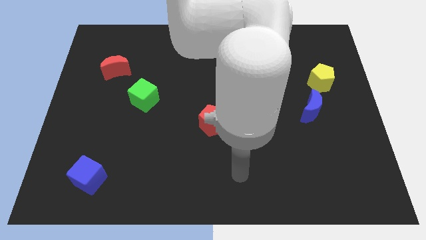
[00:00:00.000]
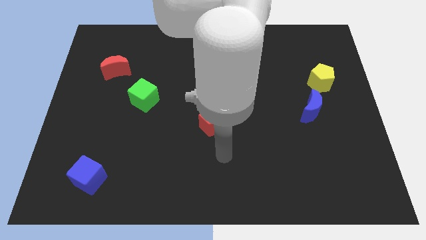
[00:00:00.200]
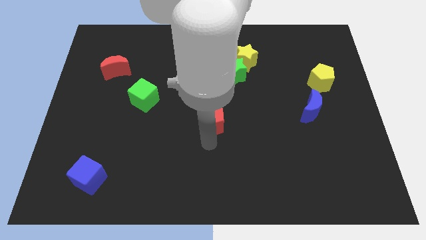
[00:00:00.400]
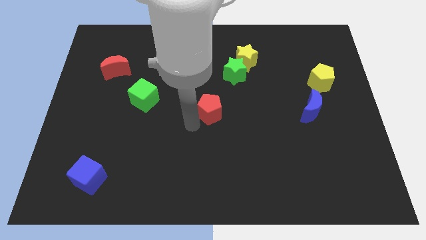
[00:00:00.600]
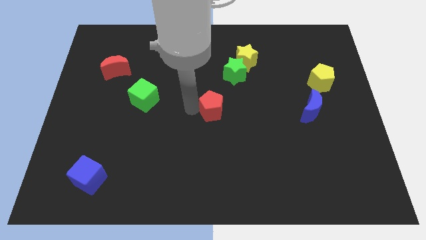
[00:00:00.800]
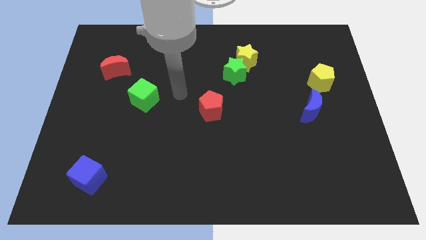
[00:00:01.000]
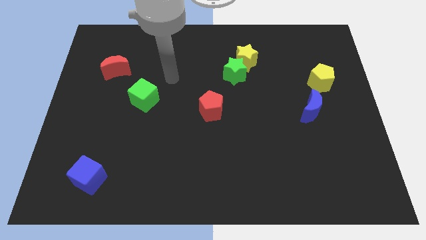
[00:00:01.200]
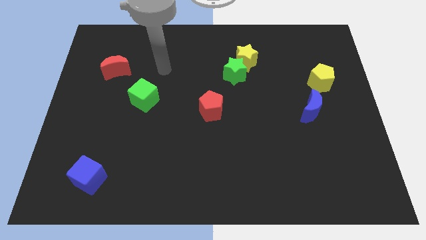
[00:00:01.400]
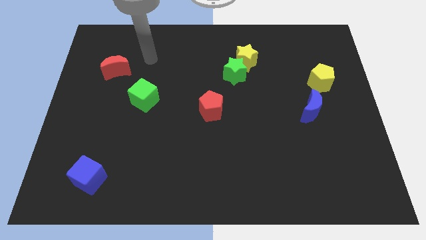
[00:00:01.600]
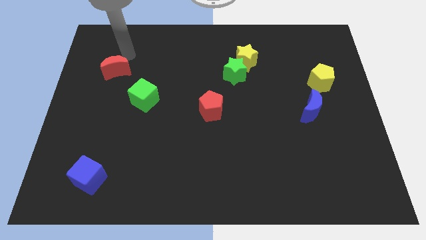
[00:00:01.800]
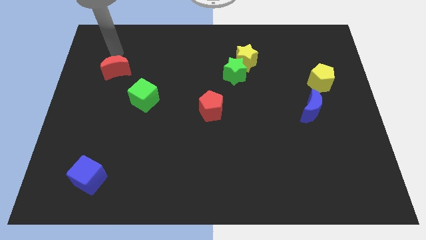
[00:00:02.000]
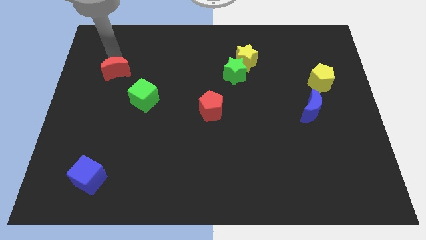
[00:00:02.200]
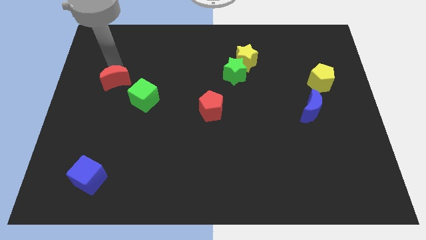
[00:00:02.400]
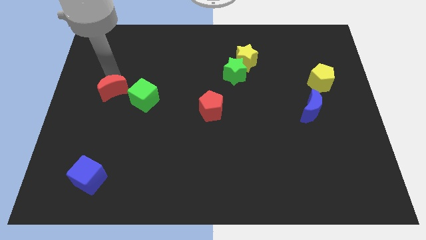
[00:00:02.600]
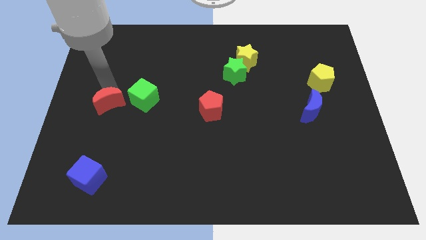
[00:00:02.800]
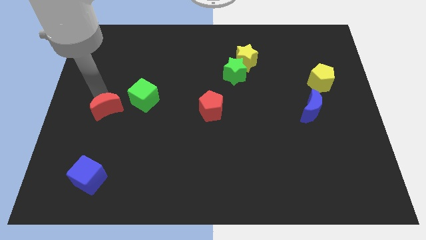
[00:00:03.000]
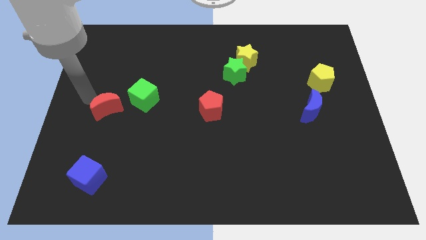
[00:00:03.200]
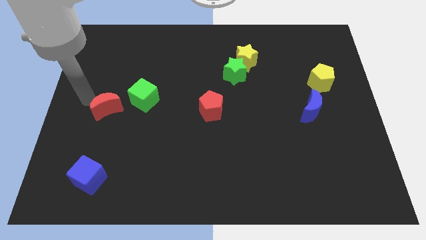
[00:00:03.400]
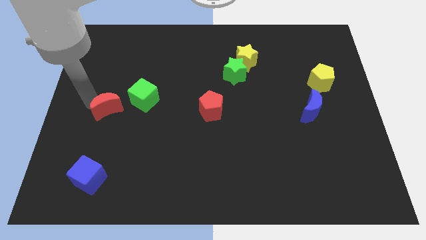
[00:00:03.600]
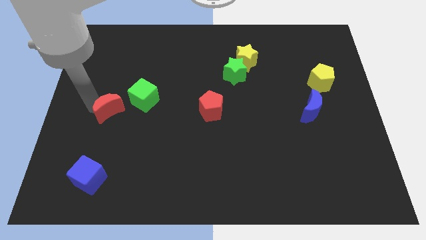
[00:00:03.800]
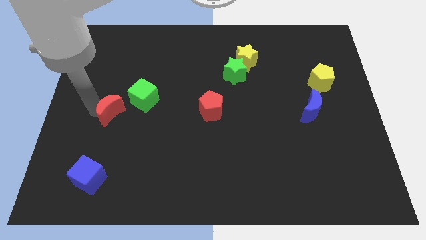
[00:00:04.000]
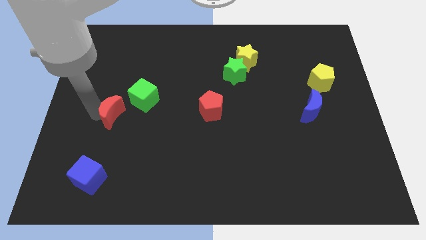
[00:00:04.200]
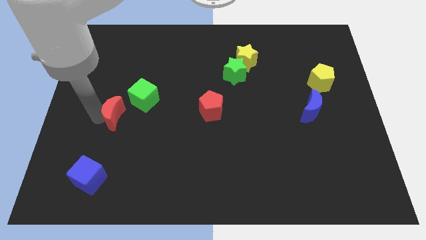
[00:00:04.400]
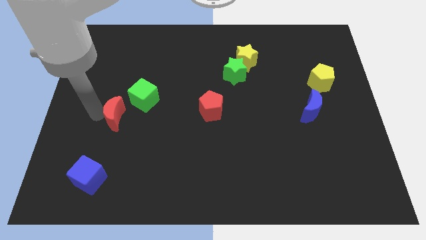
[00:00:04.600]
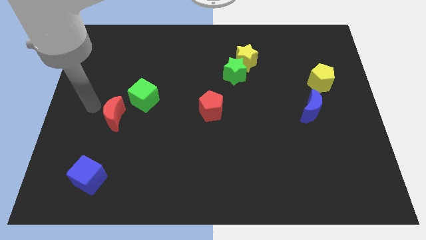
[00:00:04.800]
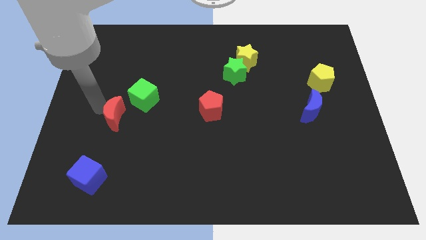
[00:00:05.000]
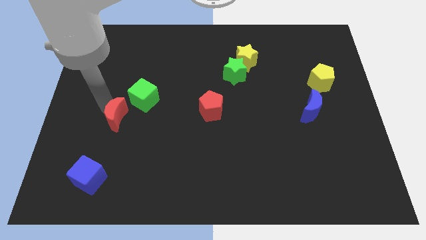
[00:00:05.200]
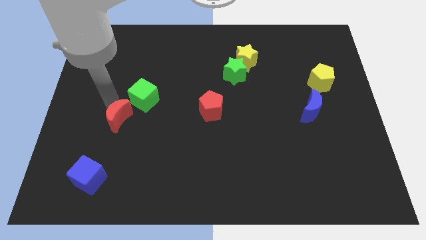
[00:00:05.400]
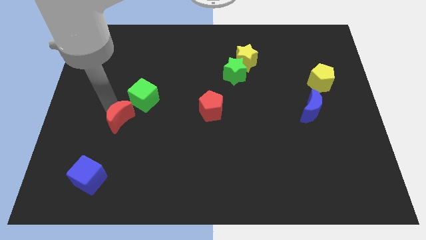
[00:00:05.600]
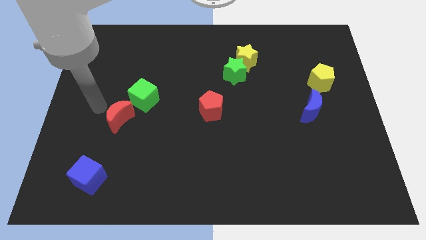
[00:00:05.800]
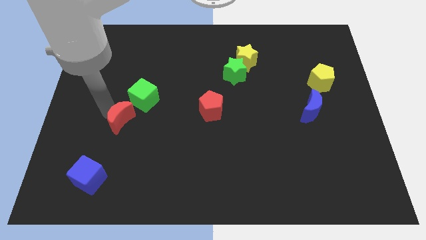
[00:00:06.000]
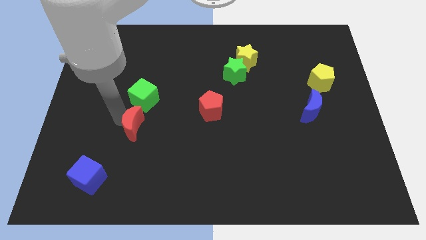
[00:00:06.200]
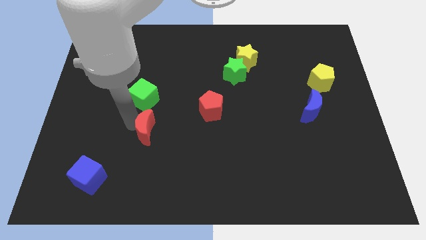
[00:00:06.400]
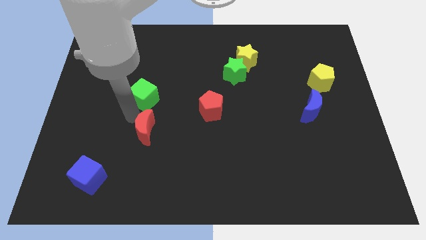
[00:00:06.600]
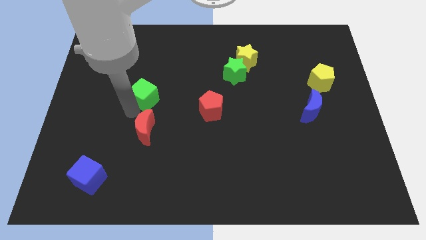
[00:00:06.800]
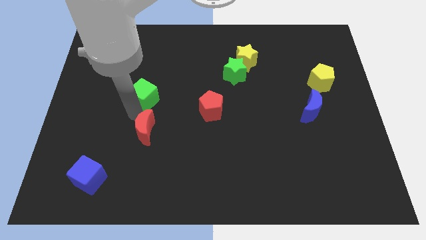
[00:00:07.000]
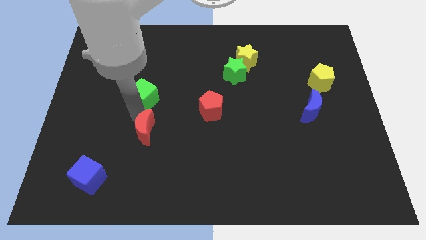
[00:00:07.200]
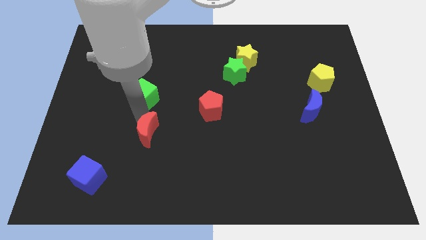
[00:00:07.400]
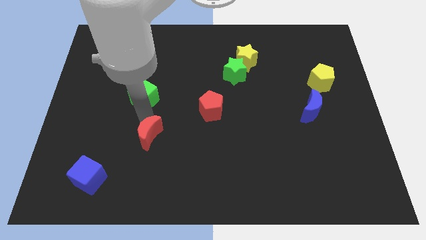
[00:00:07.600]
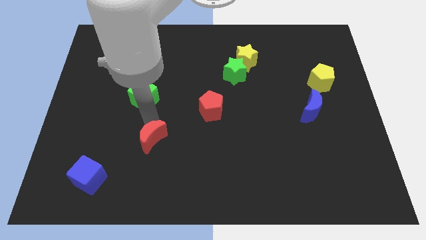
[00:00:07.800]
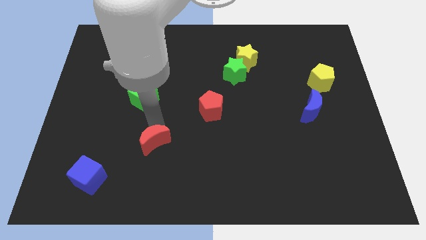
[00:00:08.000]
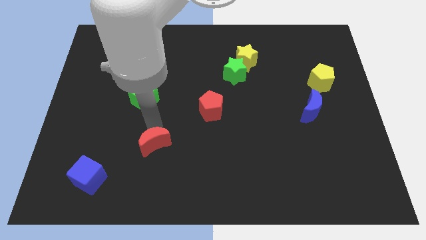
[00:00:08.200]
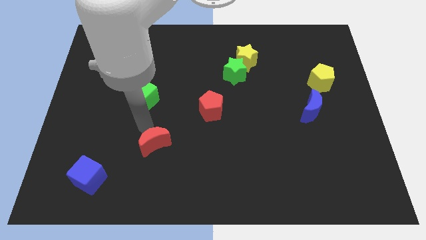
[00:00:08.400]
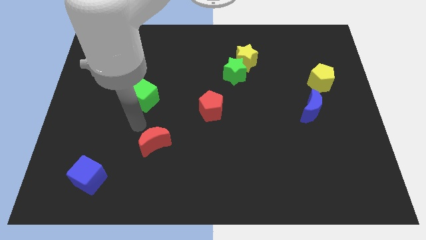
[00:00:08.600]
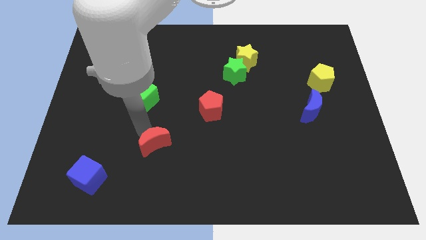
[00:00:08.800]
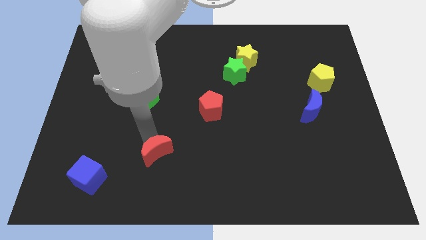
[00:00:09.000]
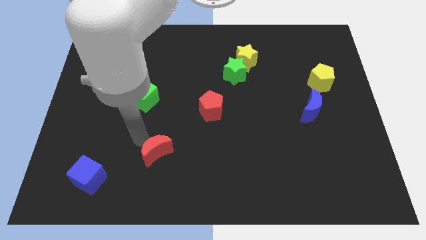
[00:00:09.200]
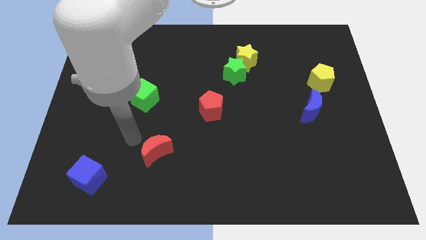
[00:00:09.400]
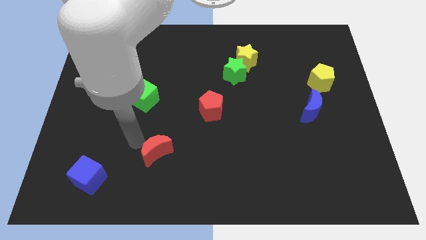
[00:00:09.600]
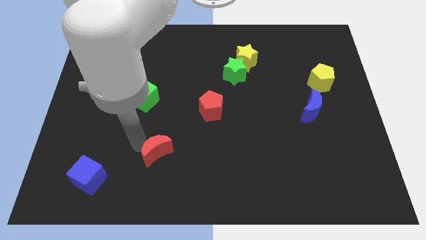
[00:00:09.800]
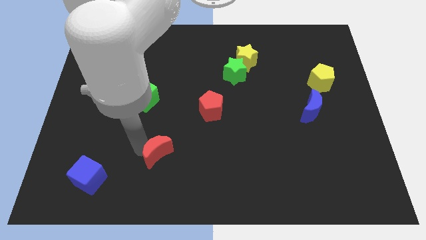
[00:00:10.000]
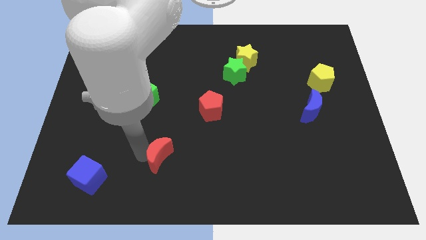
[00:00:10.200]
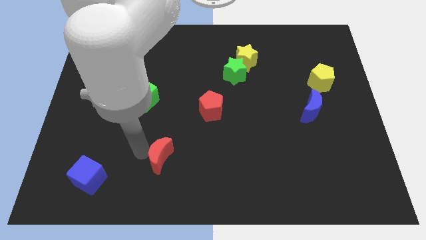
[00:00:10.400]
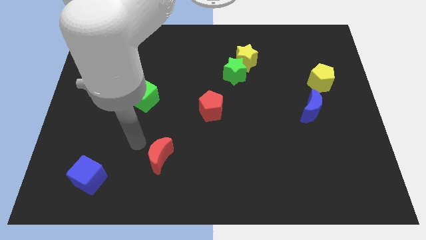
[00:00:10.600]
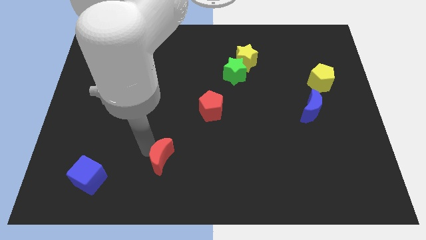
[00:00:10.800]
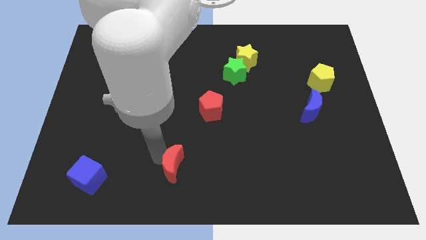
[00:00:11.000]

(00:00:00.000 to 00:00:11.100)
slide the red moon to the bottom

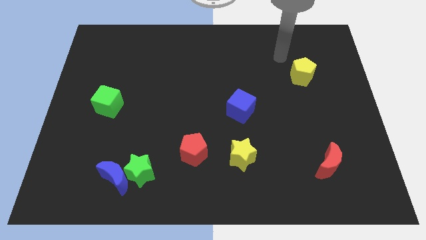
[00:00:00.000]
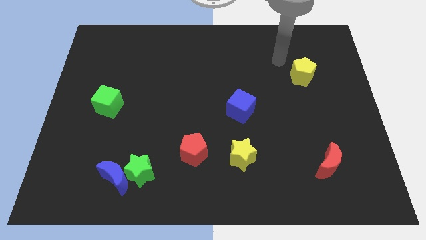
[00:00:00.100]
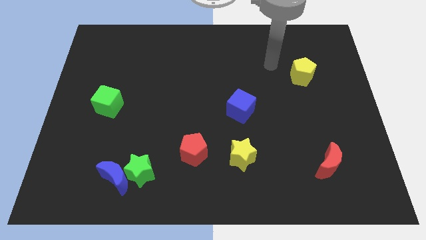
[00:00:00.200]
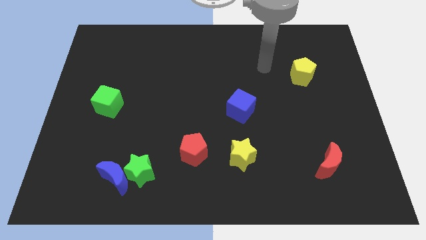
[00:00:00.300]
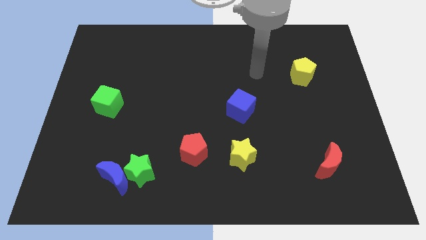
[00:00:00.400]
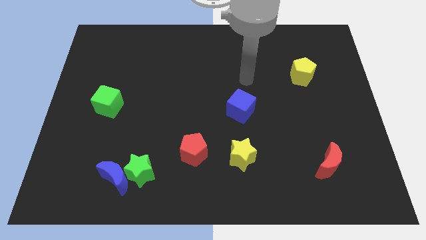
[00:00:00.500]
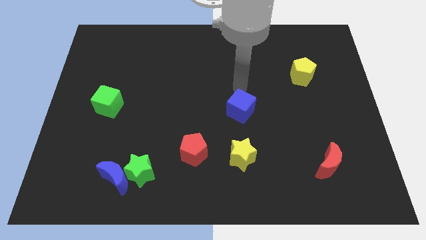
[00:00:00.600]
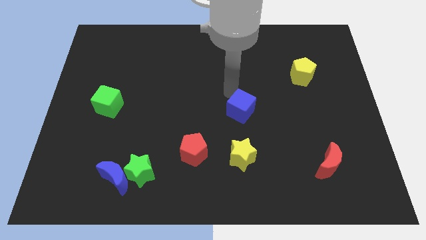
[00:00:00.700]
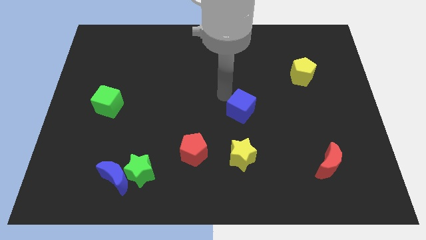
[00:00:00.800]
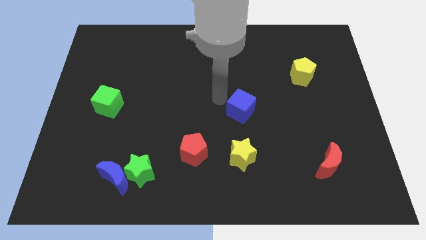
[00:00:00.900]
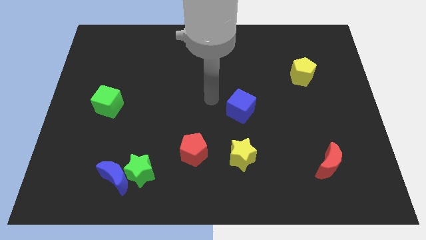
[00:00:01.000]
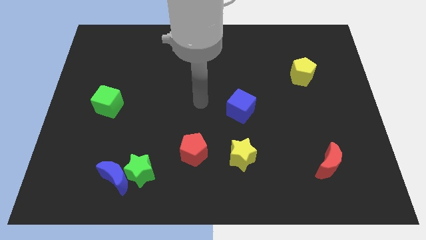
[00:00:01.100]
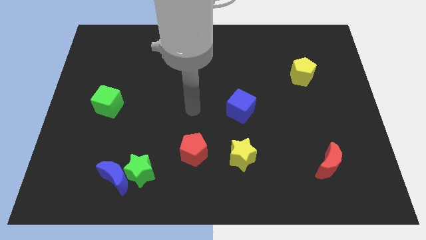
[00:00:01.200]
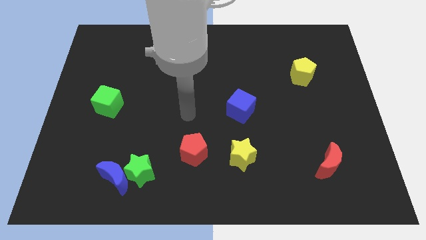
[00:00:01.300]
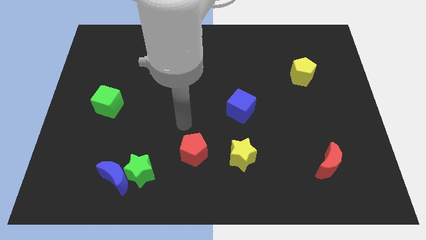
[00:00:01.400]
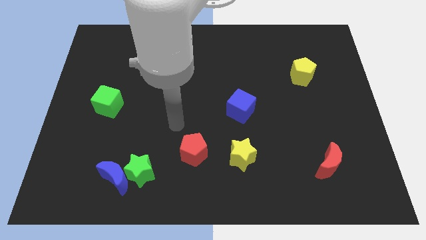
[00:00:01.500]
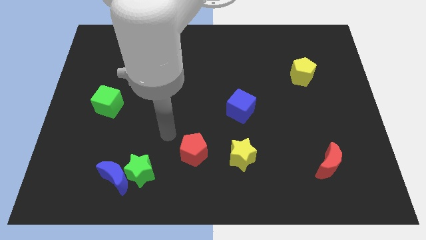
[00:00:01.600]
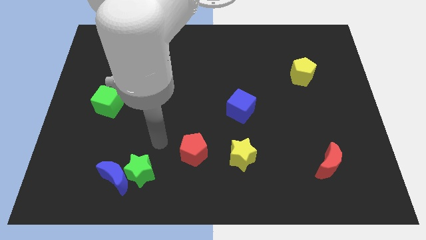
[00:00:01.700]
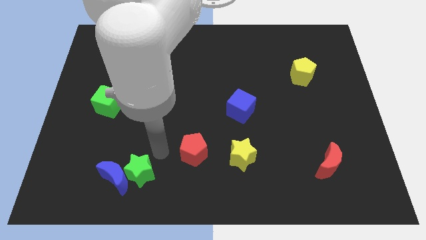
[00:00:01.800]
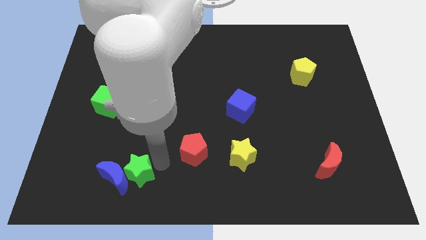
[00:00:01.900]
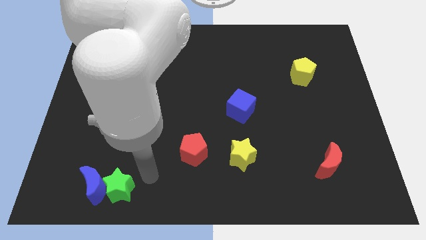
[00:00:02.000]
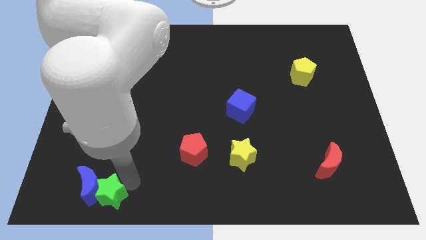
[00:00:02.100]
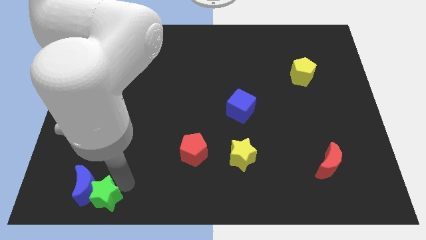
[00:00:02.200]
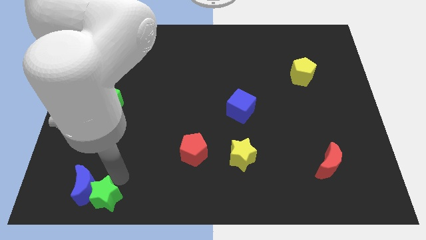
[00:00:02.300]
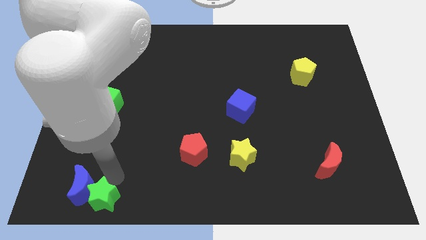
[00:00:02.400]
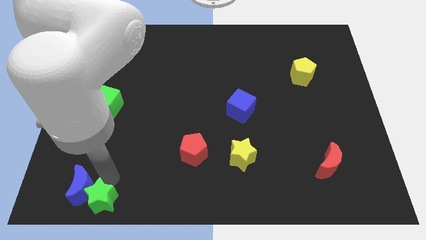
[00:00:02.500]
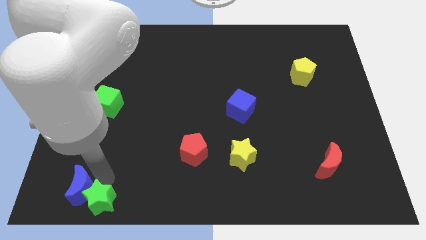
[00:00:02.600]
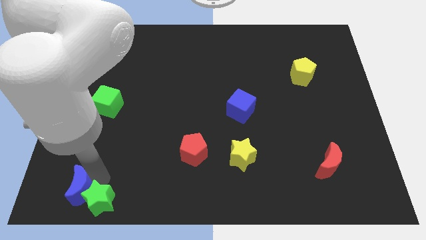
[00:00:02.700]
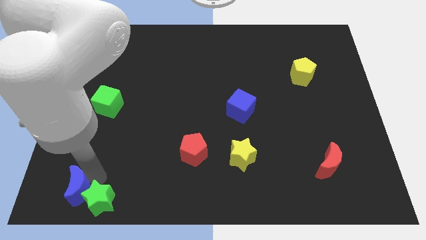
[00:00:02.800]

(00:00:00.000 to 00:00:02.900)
slide the blue moon to the bottom left of the board
